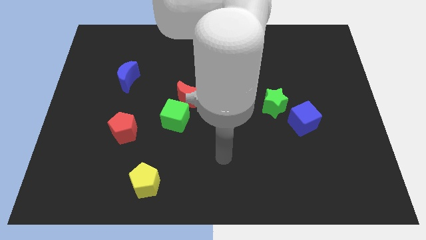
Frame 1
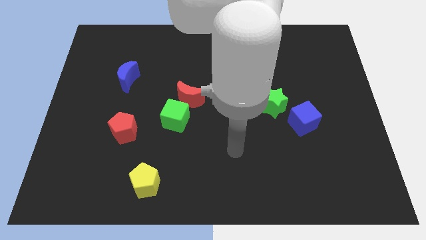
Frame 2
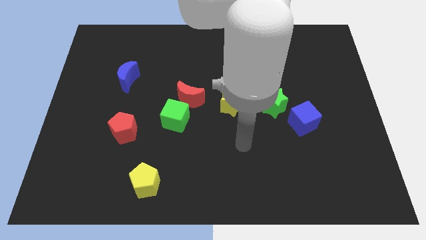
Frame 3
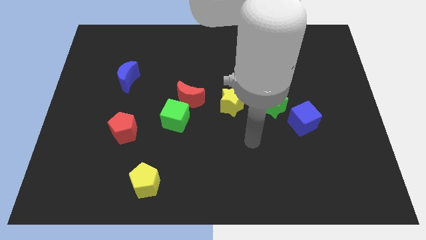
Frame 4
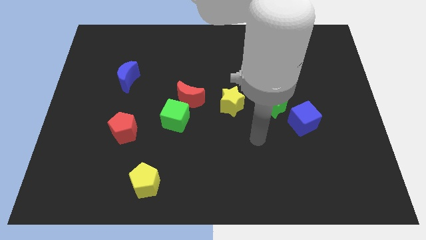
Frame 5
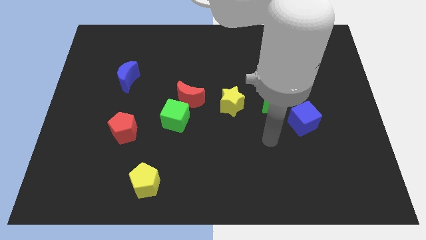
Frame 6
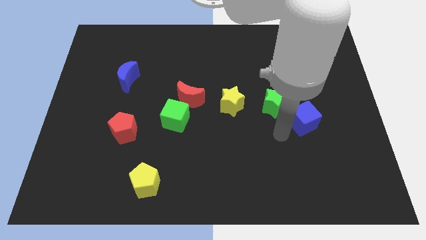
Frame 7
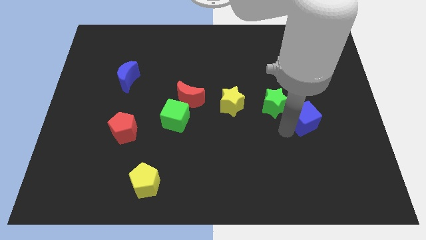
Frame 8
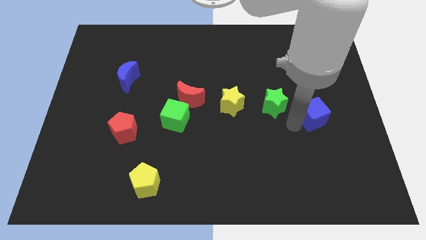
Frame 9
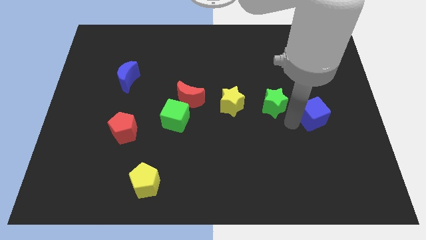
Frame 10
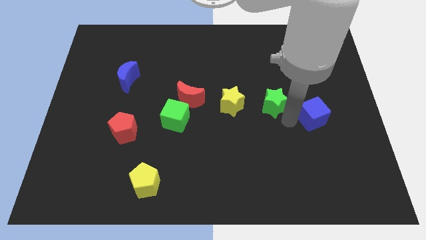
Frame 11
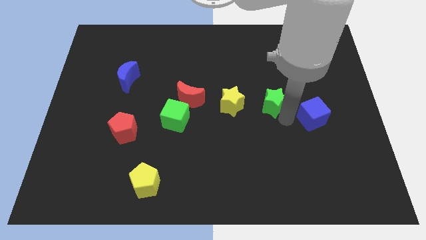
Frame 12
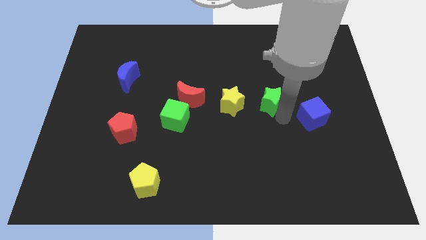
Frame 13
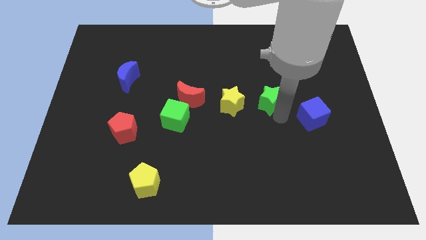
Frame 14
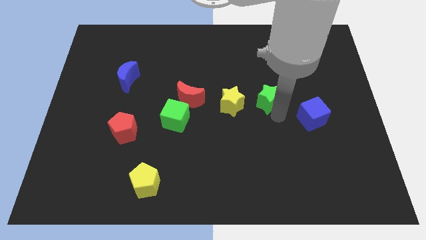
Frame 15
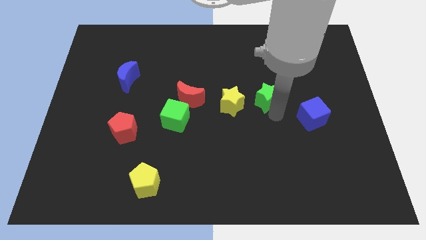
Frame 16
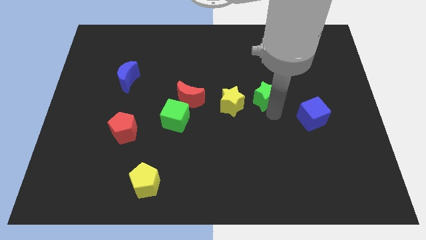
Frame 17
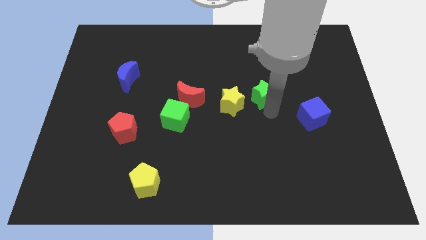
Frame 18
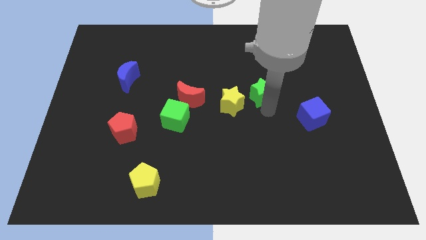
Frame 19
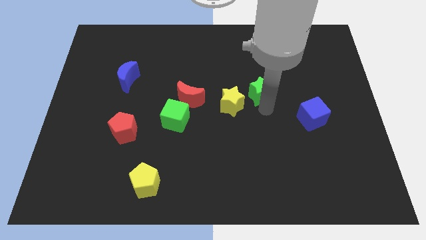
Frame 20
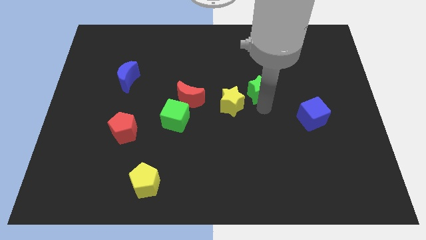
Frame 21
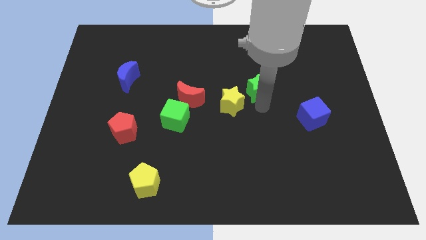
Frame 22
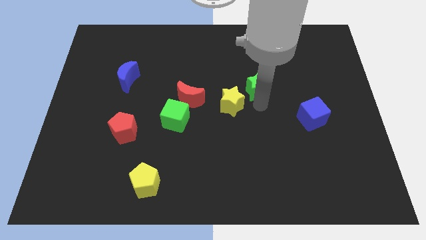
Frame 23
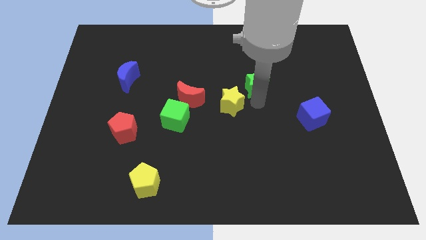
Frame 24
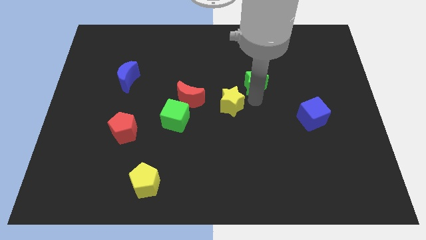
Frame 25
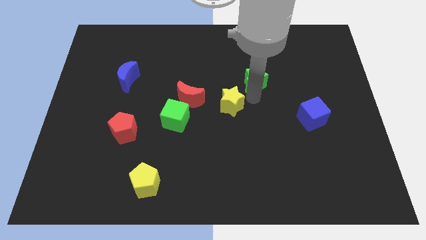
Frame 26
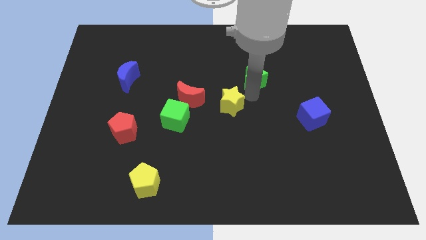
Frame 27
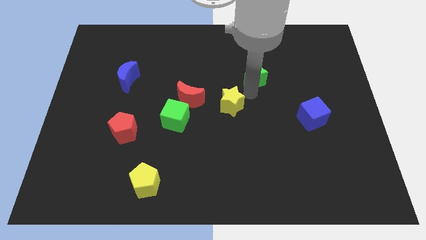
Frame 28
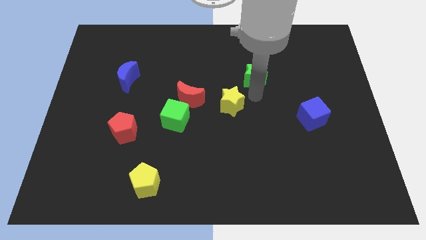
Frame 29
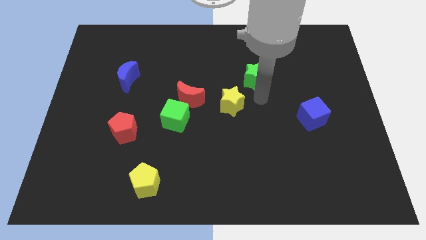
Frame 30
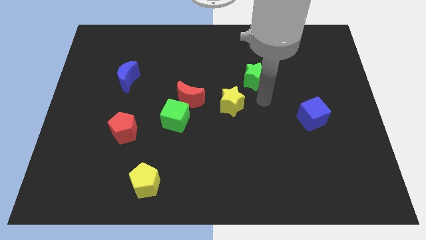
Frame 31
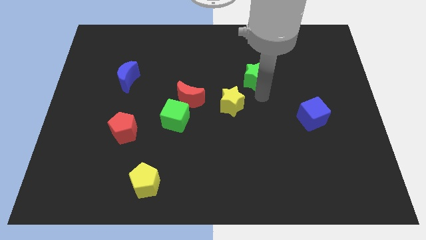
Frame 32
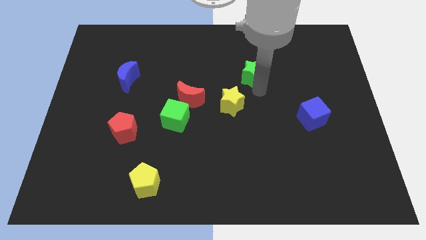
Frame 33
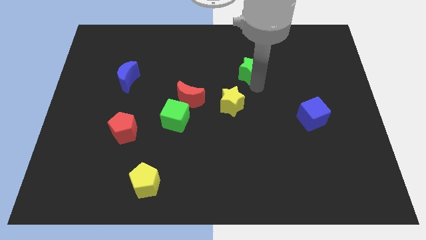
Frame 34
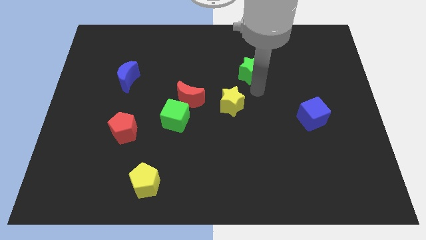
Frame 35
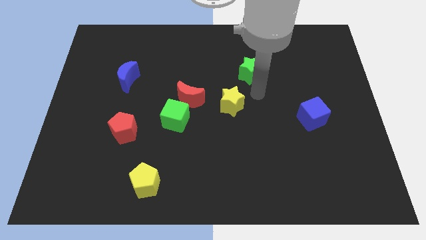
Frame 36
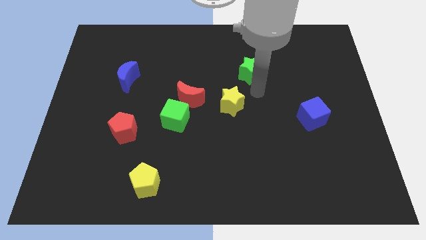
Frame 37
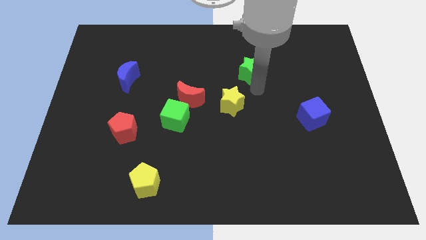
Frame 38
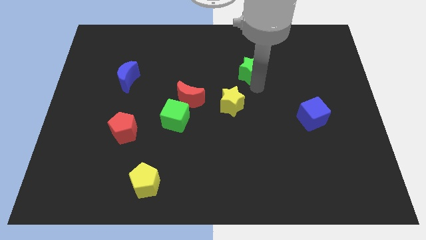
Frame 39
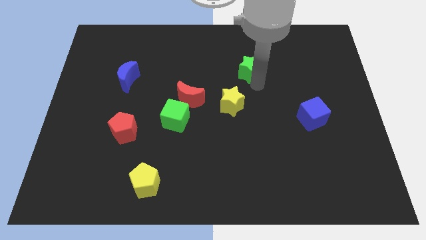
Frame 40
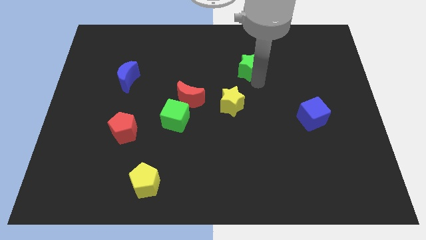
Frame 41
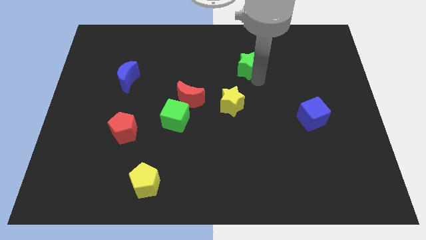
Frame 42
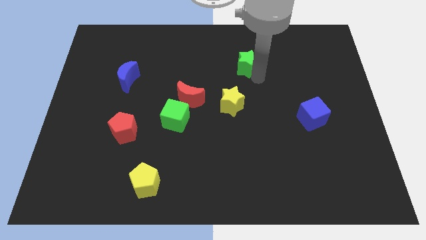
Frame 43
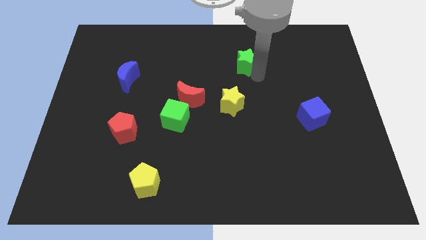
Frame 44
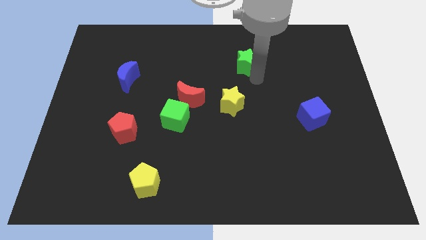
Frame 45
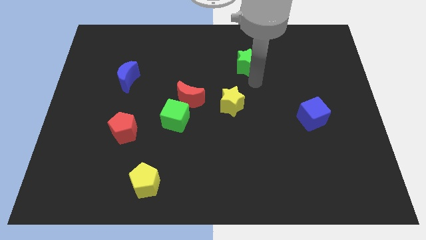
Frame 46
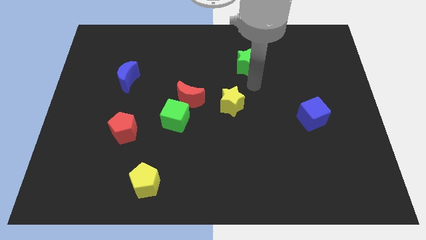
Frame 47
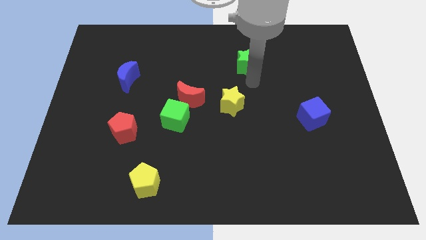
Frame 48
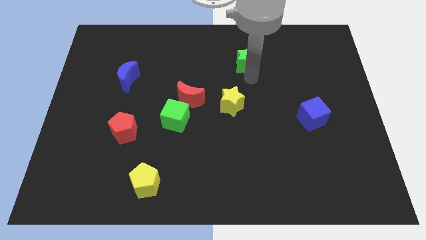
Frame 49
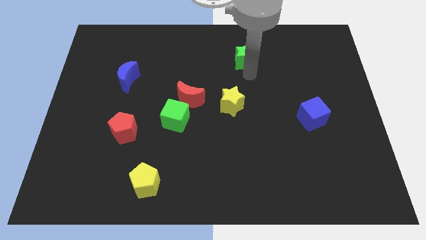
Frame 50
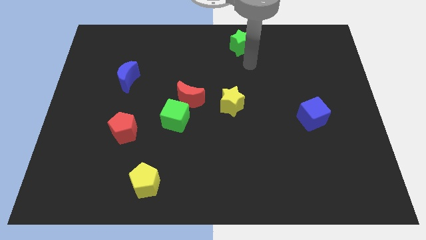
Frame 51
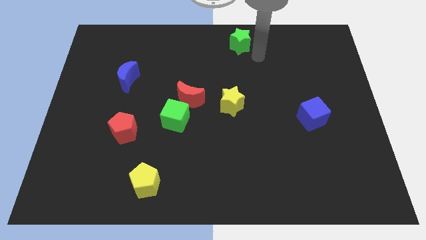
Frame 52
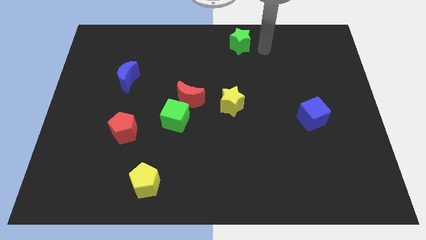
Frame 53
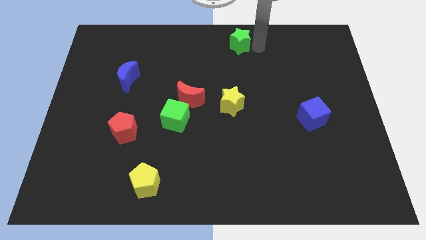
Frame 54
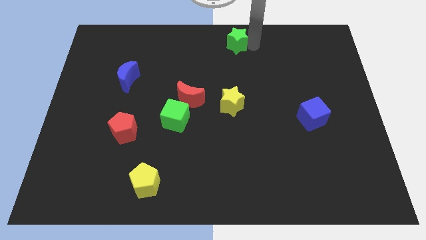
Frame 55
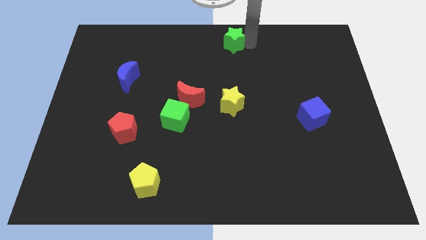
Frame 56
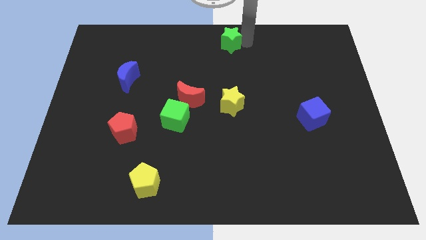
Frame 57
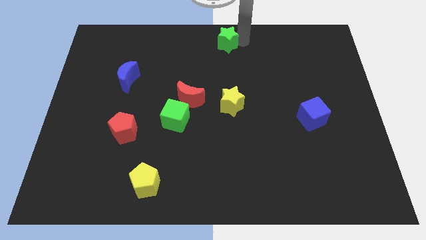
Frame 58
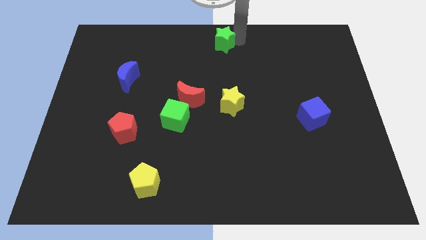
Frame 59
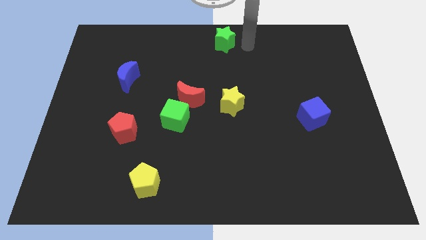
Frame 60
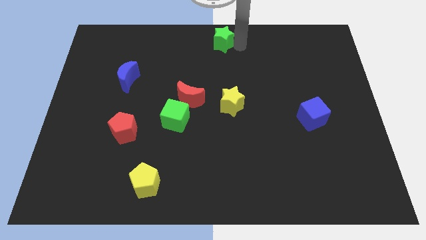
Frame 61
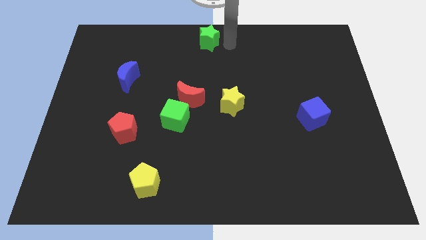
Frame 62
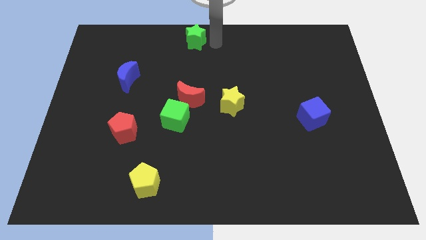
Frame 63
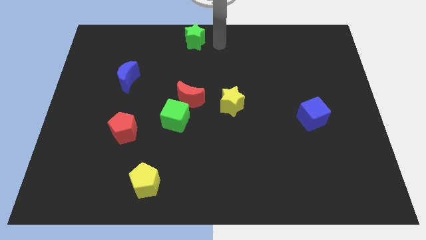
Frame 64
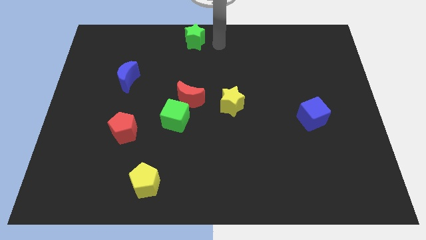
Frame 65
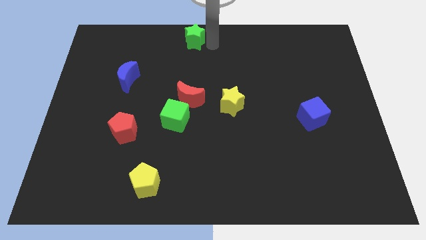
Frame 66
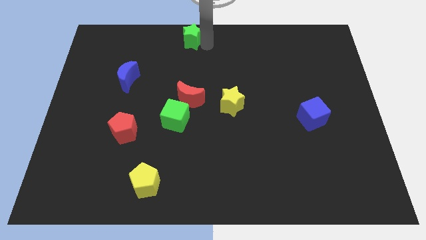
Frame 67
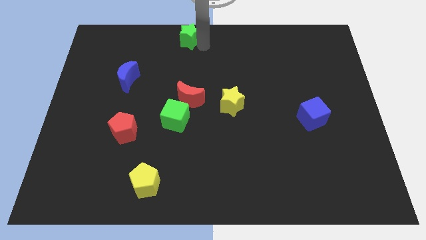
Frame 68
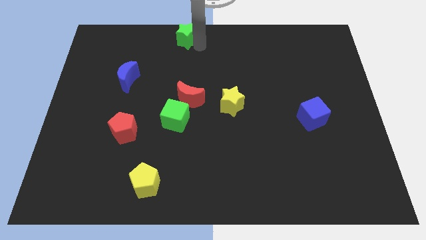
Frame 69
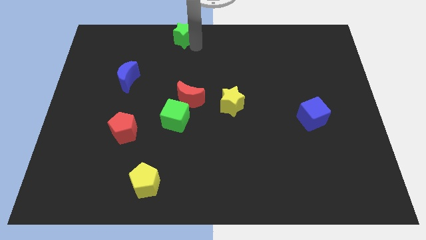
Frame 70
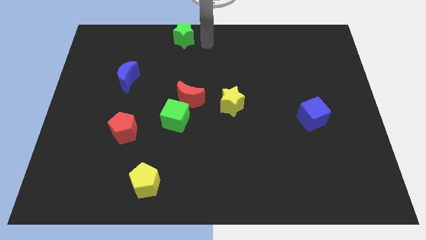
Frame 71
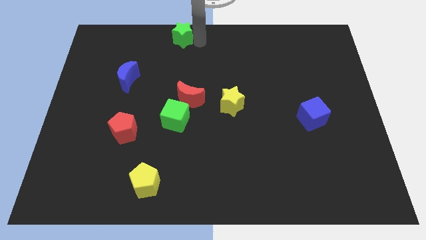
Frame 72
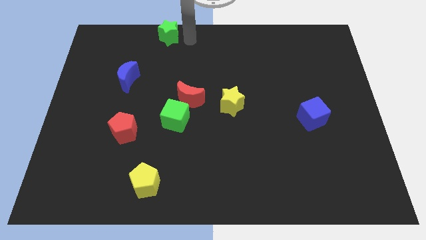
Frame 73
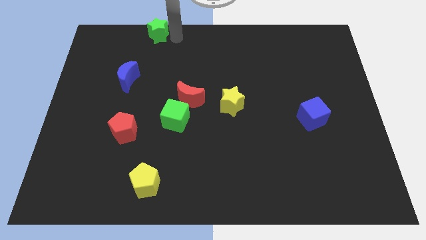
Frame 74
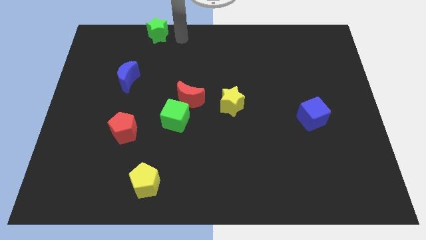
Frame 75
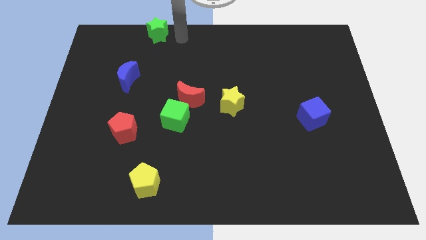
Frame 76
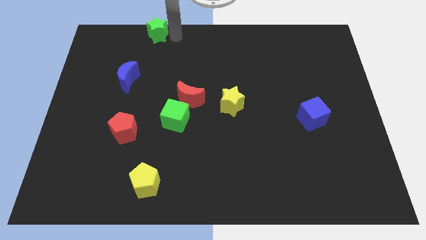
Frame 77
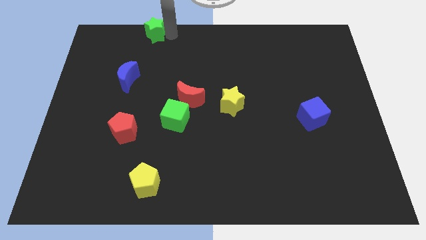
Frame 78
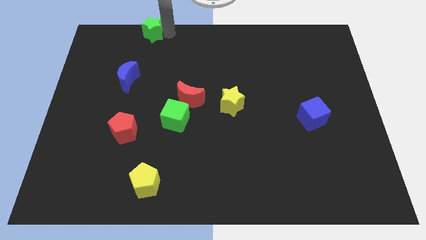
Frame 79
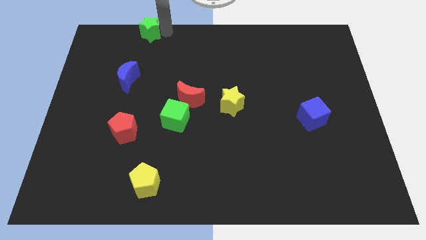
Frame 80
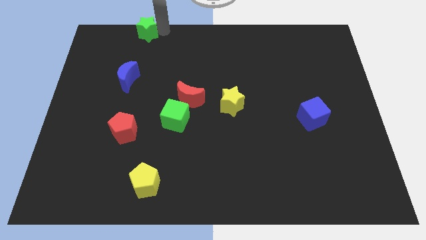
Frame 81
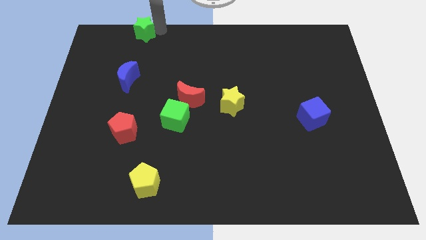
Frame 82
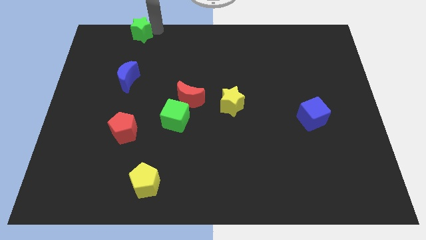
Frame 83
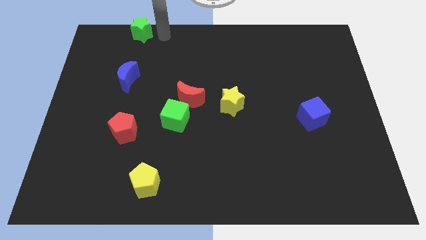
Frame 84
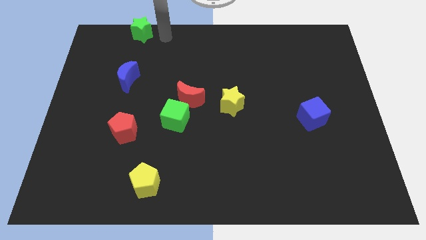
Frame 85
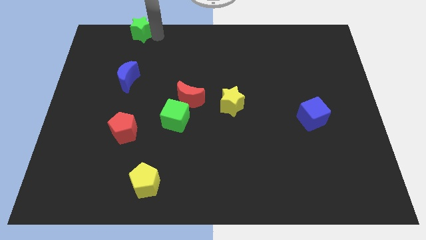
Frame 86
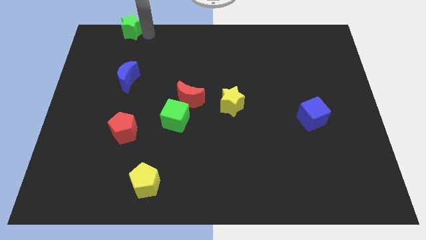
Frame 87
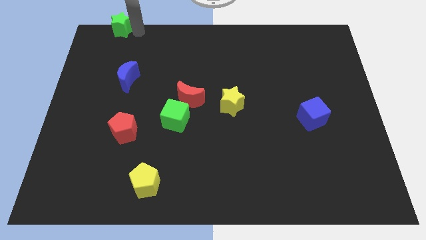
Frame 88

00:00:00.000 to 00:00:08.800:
move the green star to the top left
